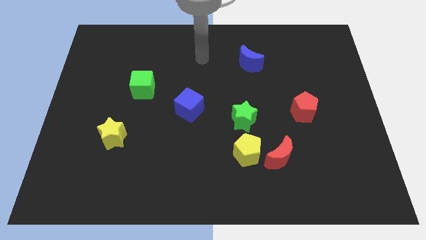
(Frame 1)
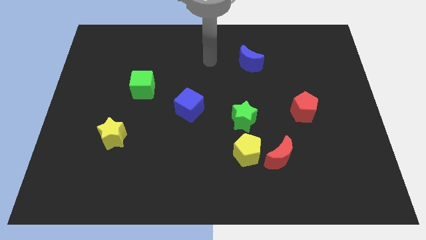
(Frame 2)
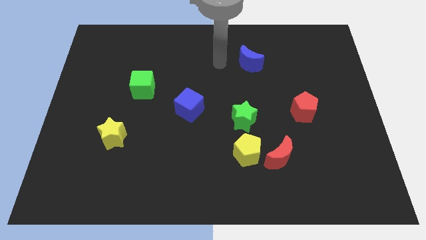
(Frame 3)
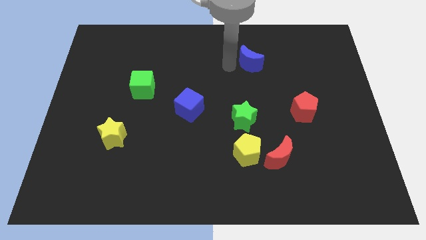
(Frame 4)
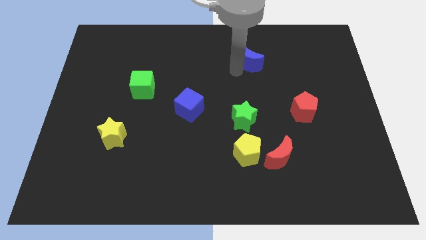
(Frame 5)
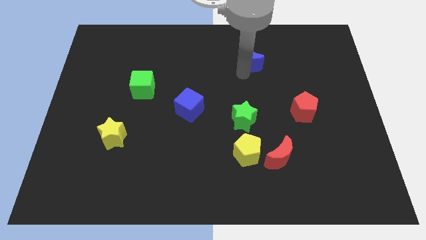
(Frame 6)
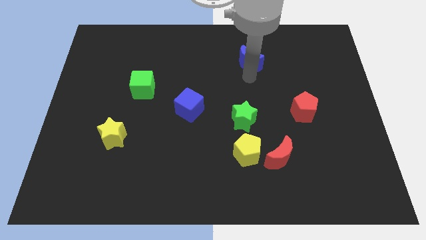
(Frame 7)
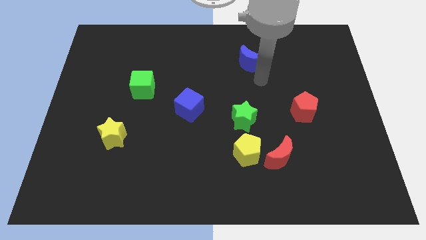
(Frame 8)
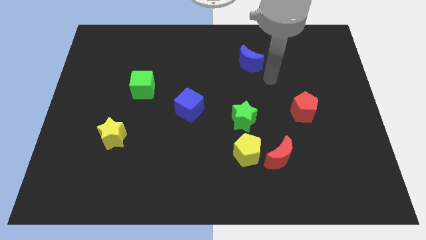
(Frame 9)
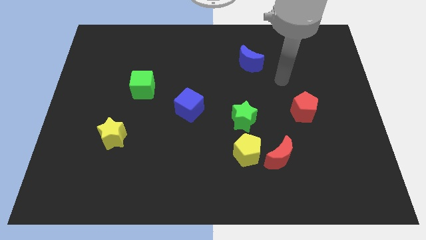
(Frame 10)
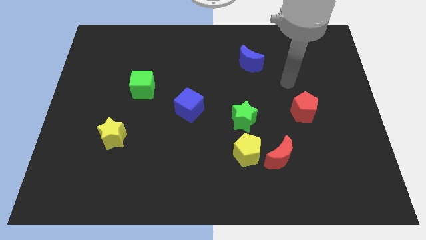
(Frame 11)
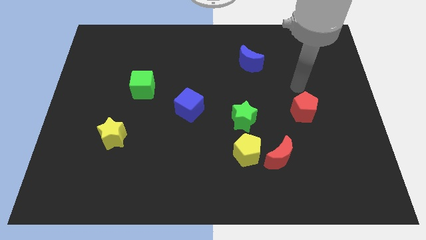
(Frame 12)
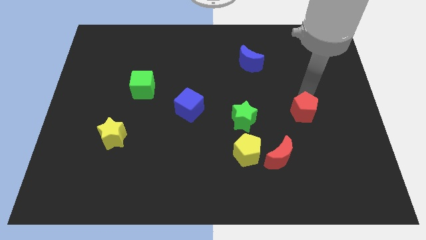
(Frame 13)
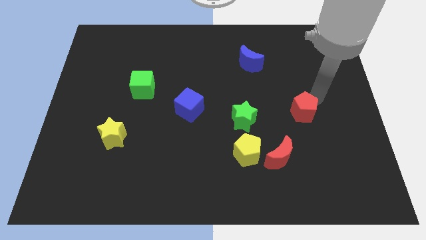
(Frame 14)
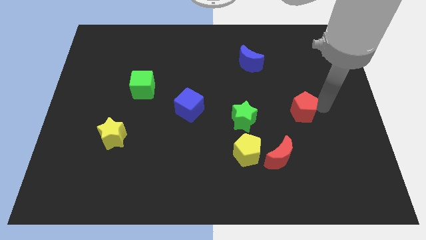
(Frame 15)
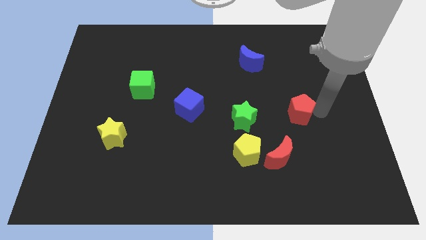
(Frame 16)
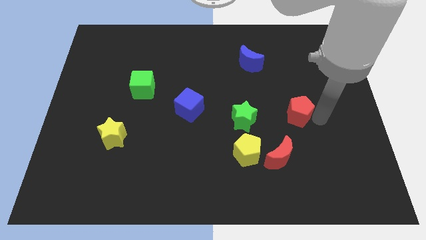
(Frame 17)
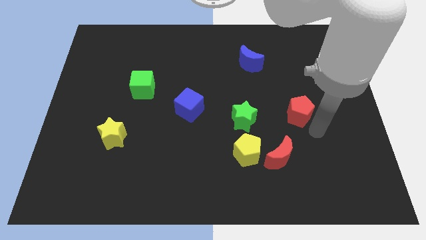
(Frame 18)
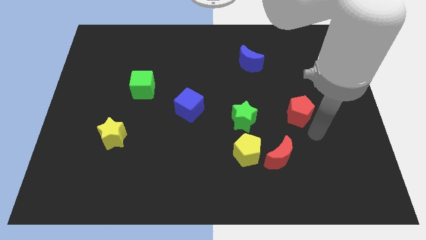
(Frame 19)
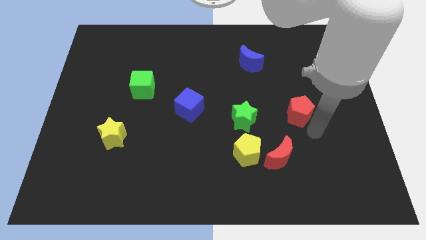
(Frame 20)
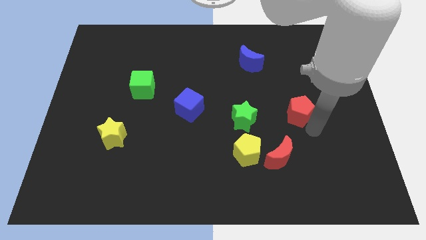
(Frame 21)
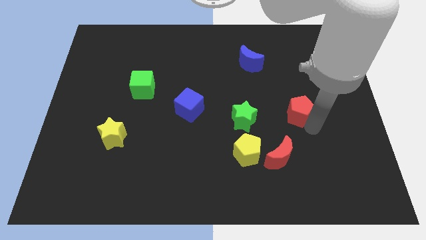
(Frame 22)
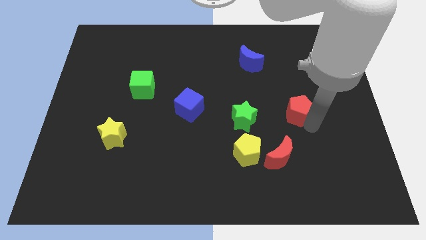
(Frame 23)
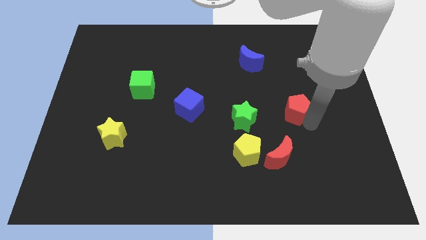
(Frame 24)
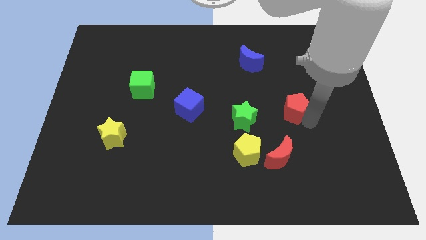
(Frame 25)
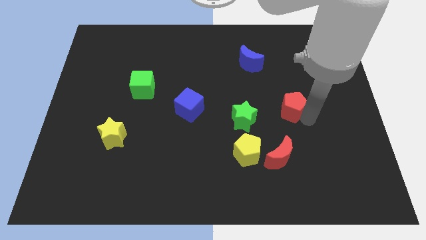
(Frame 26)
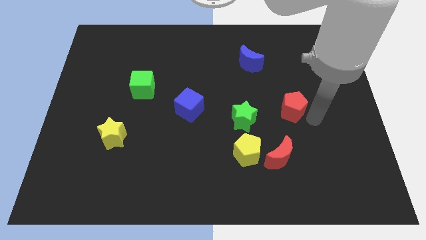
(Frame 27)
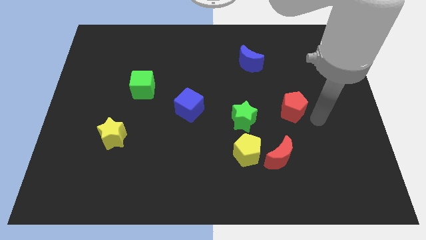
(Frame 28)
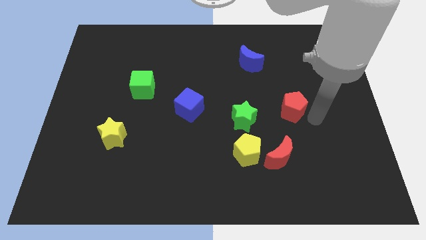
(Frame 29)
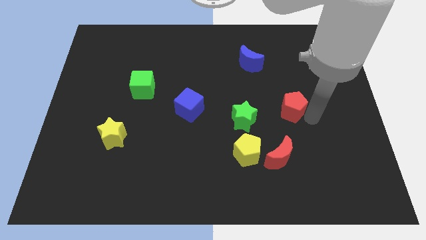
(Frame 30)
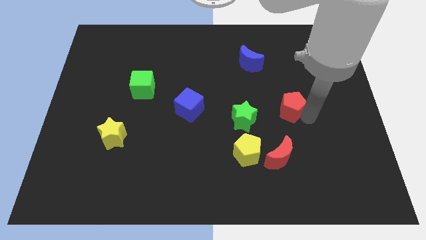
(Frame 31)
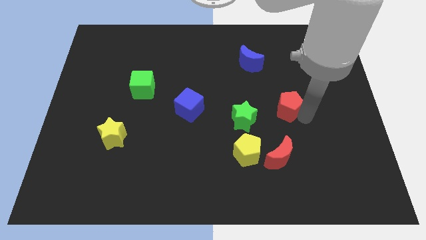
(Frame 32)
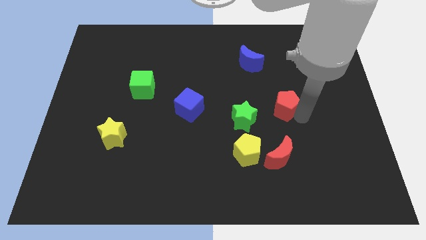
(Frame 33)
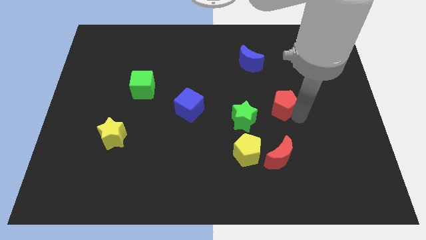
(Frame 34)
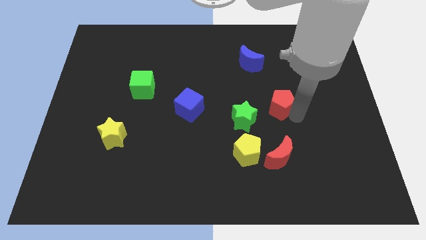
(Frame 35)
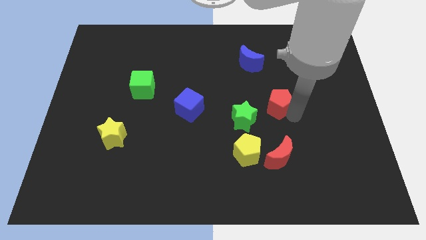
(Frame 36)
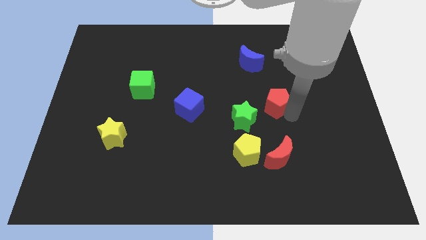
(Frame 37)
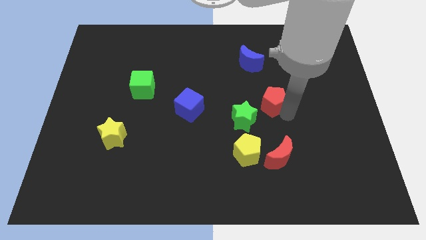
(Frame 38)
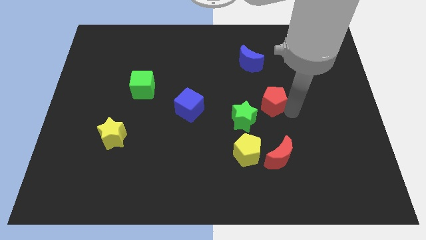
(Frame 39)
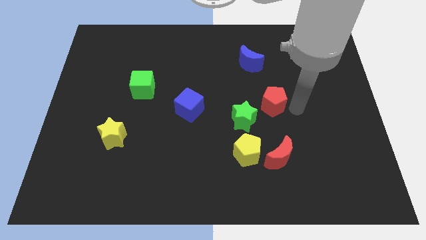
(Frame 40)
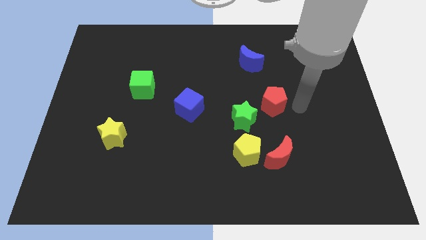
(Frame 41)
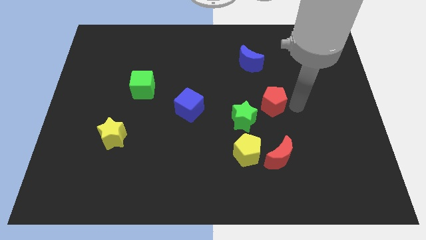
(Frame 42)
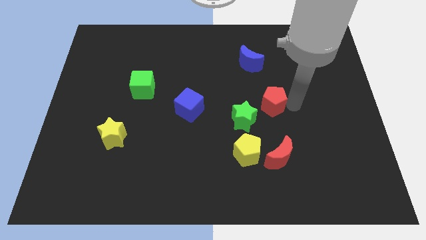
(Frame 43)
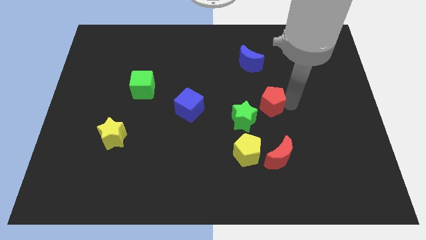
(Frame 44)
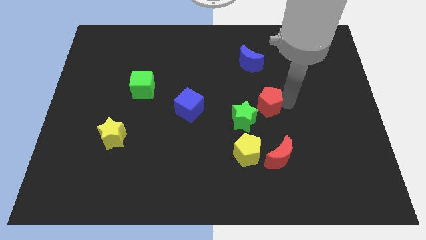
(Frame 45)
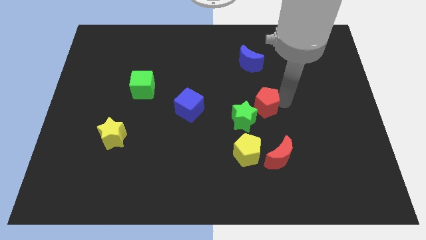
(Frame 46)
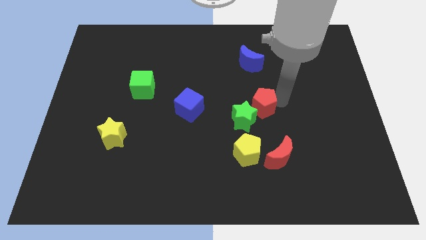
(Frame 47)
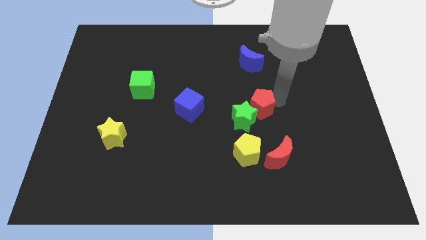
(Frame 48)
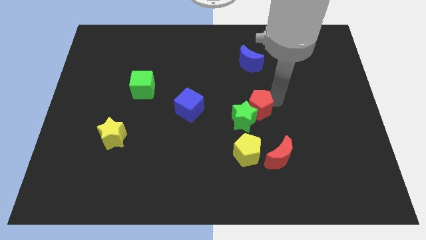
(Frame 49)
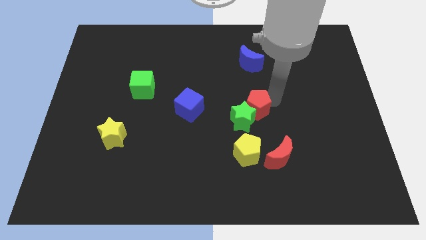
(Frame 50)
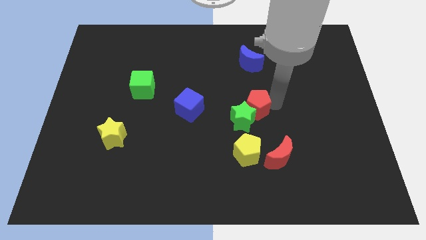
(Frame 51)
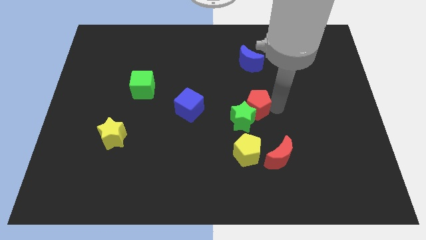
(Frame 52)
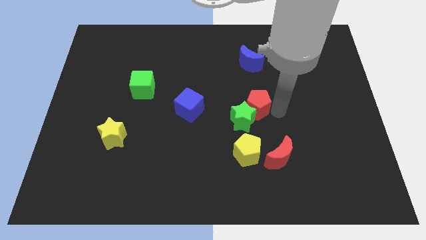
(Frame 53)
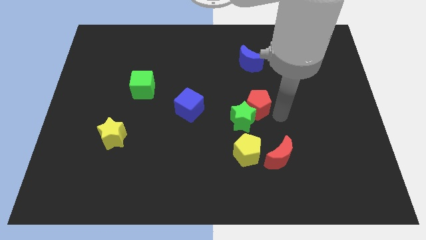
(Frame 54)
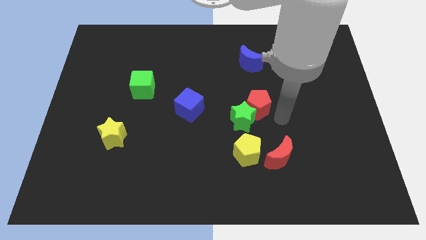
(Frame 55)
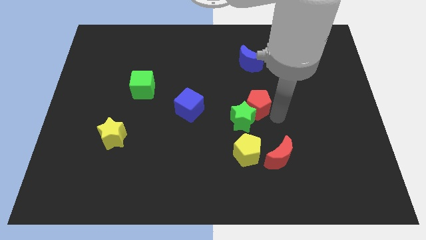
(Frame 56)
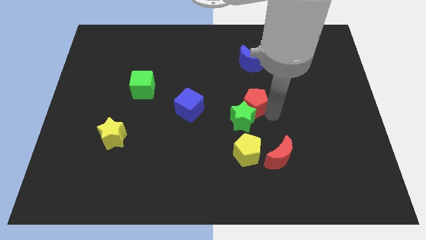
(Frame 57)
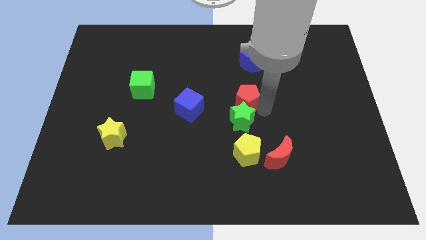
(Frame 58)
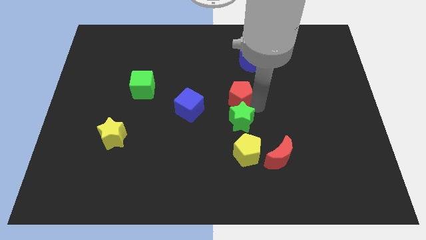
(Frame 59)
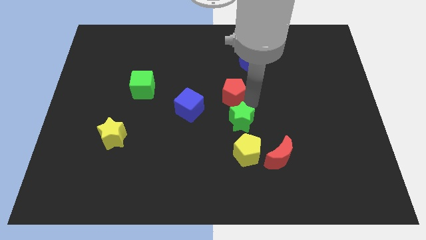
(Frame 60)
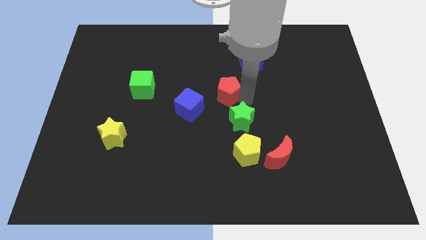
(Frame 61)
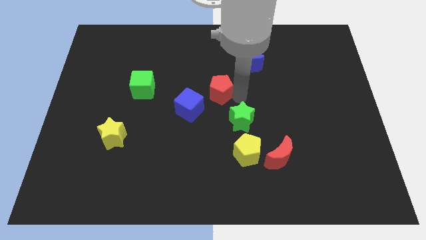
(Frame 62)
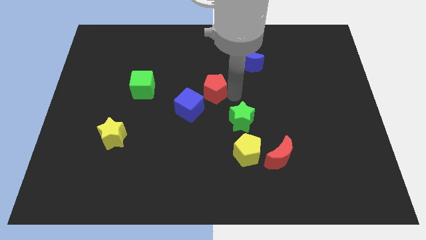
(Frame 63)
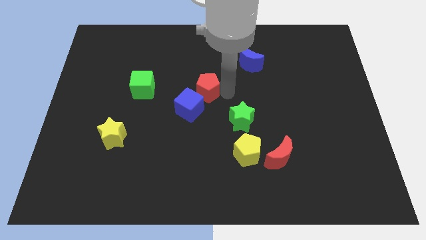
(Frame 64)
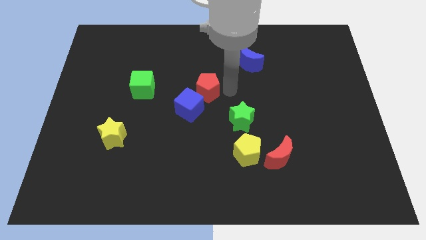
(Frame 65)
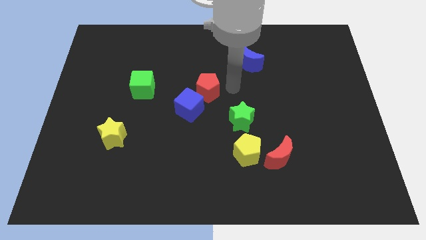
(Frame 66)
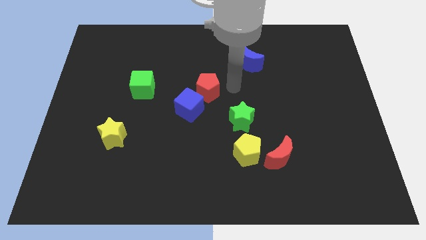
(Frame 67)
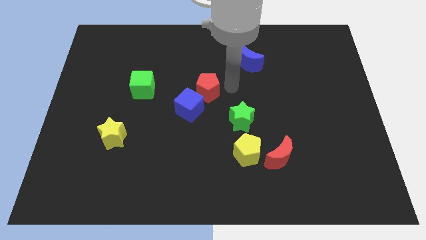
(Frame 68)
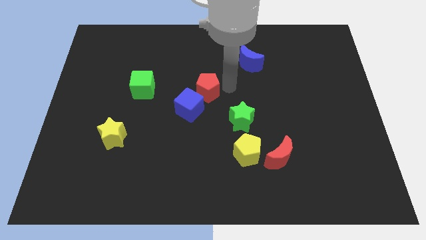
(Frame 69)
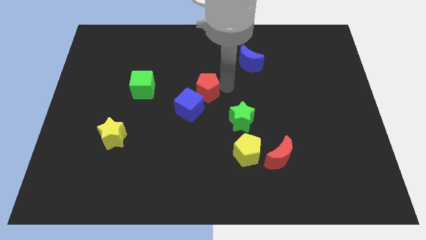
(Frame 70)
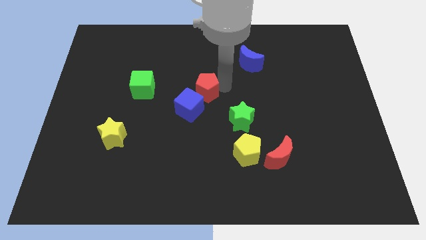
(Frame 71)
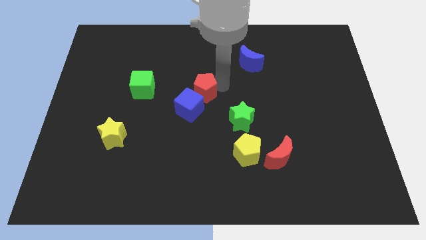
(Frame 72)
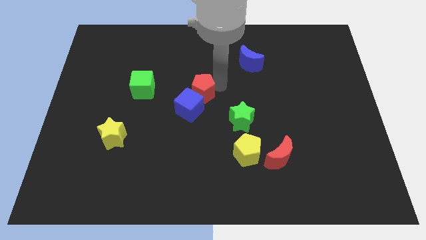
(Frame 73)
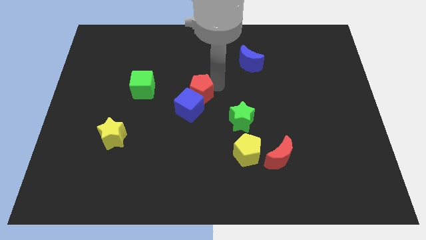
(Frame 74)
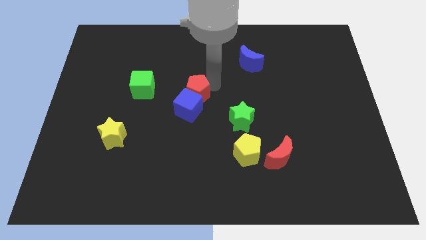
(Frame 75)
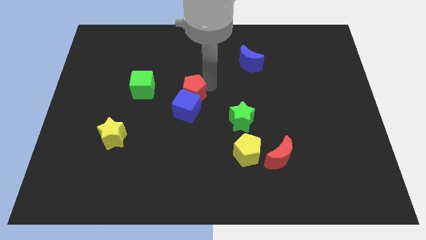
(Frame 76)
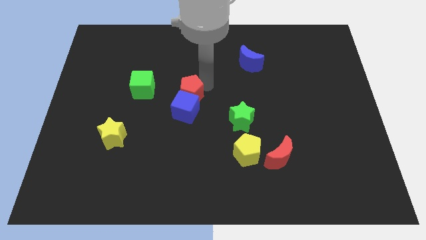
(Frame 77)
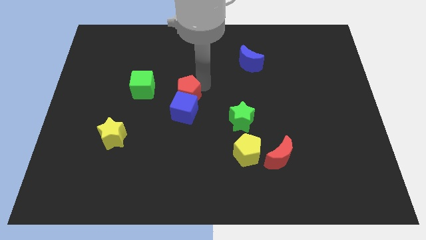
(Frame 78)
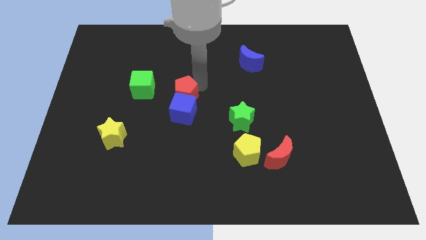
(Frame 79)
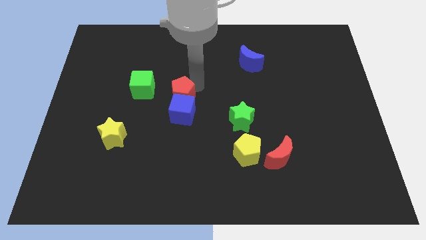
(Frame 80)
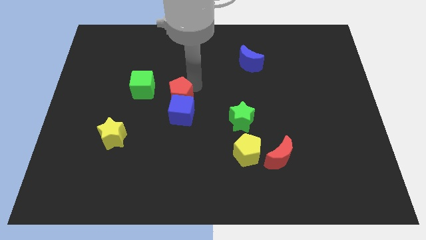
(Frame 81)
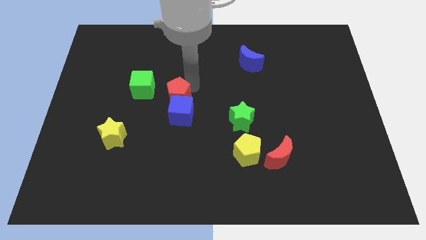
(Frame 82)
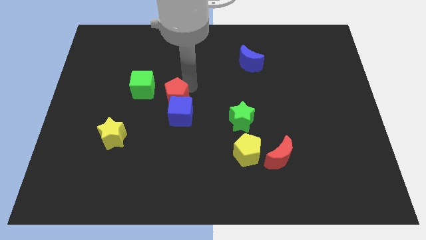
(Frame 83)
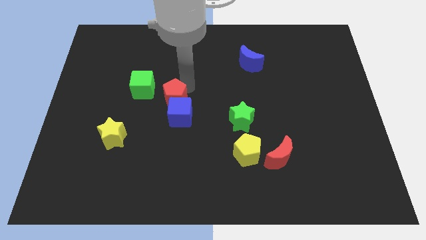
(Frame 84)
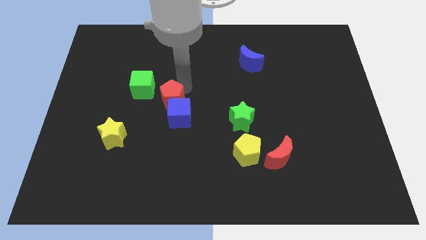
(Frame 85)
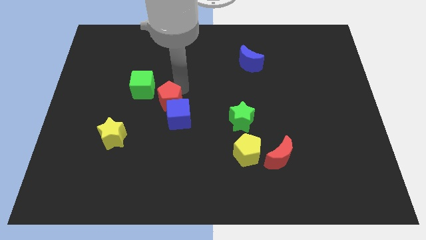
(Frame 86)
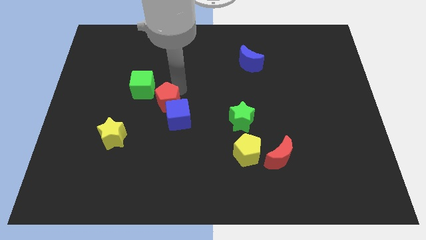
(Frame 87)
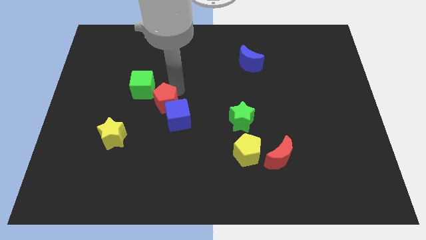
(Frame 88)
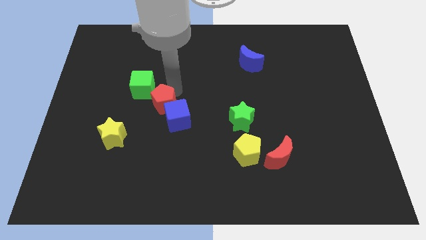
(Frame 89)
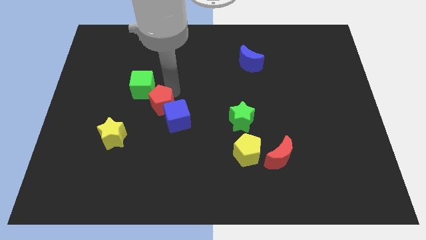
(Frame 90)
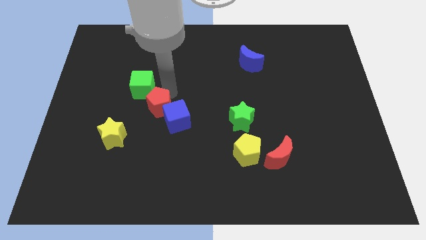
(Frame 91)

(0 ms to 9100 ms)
move the red pentagon to the bottom of the green cube
